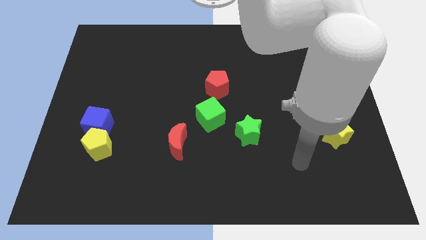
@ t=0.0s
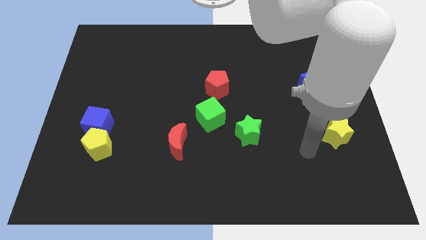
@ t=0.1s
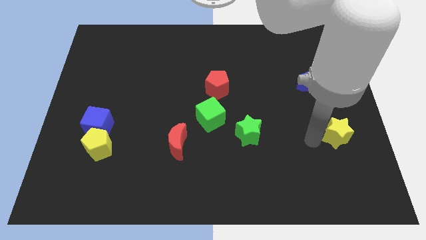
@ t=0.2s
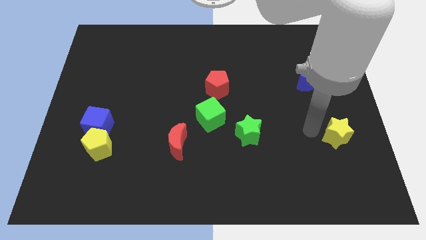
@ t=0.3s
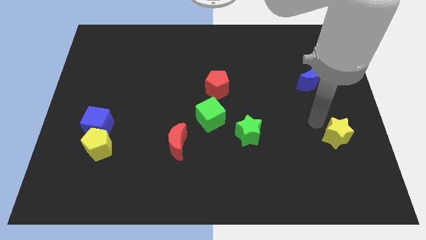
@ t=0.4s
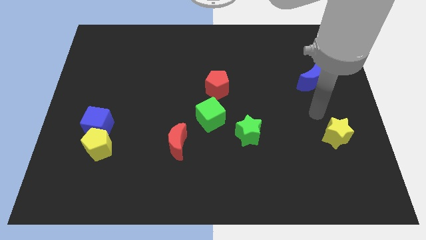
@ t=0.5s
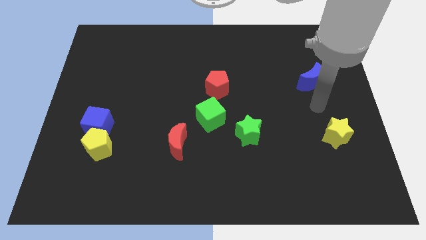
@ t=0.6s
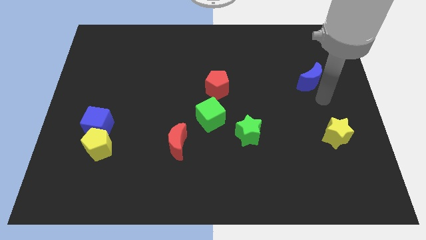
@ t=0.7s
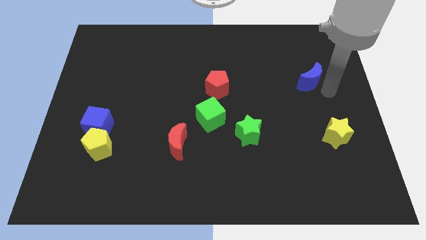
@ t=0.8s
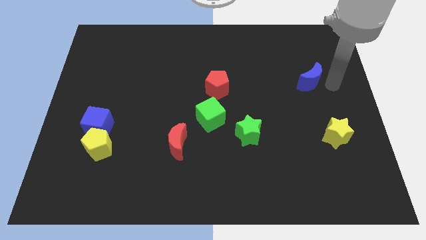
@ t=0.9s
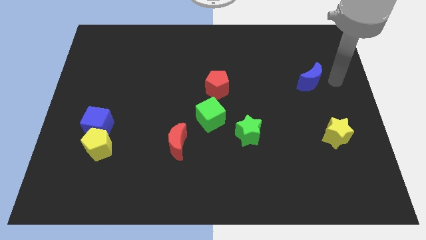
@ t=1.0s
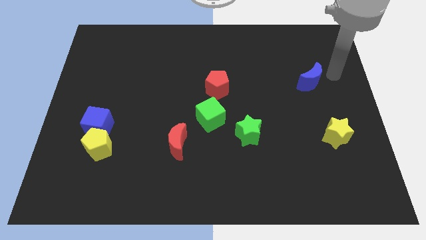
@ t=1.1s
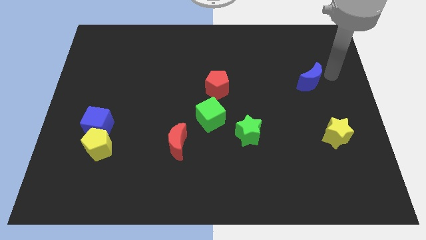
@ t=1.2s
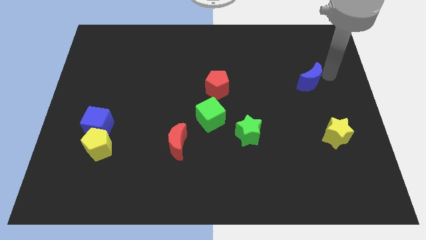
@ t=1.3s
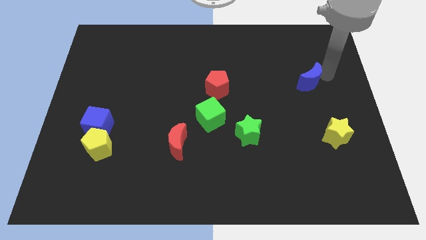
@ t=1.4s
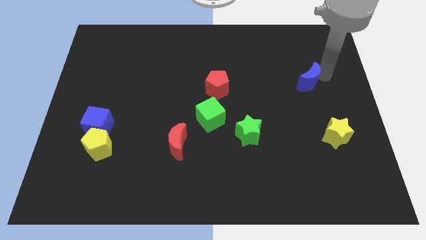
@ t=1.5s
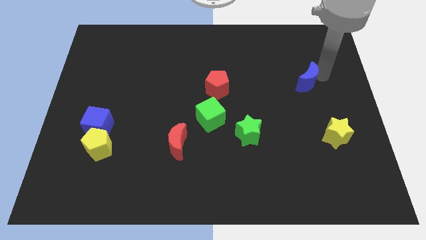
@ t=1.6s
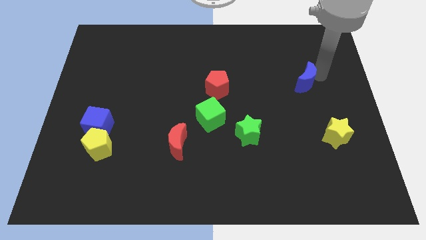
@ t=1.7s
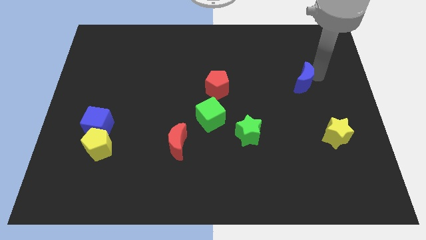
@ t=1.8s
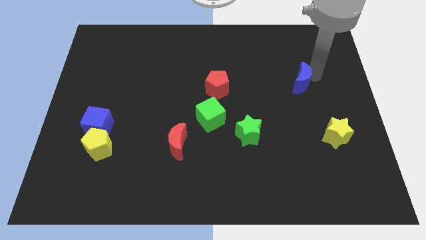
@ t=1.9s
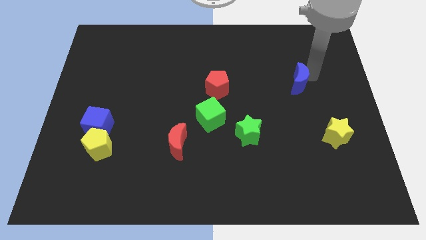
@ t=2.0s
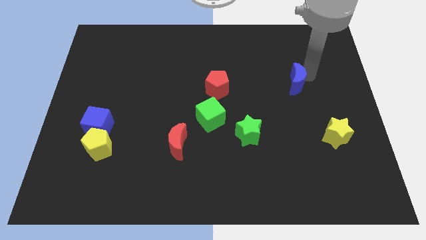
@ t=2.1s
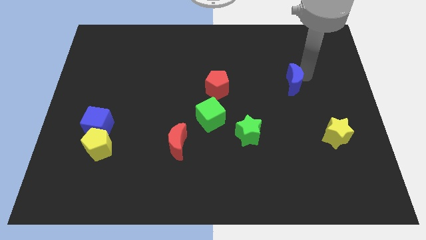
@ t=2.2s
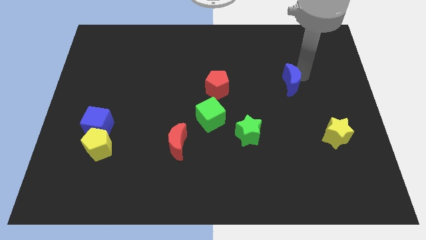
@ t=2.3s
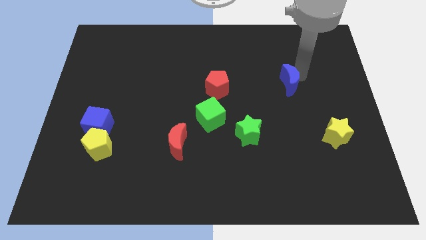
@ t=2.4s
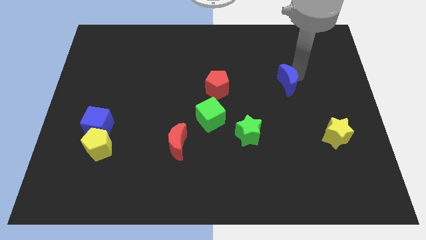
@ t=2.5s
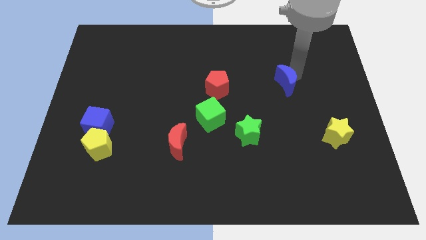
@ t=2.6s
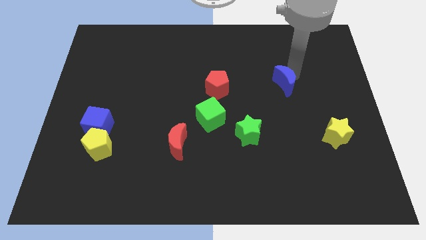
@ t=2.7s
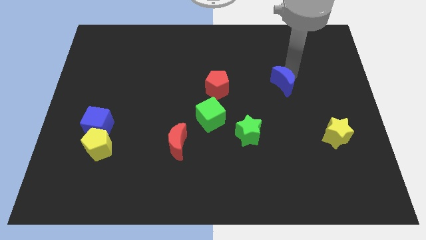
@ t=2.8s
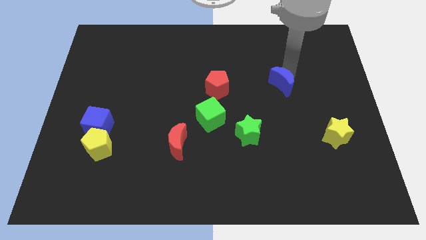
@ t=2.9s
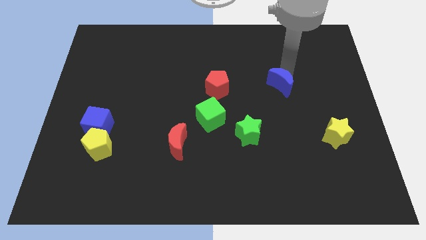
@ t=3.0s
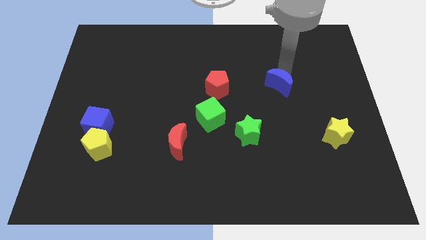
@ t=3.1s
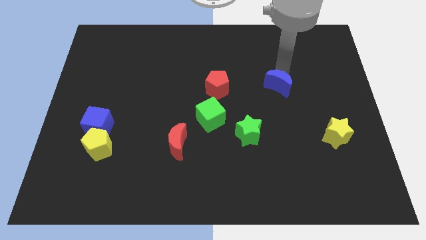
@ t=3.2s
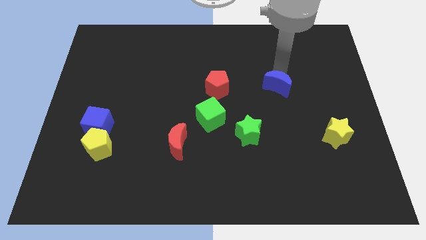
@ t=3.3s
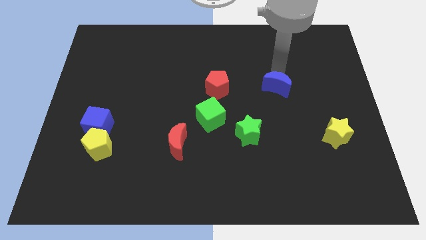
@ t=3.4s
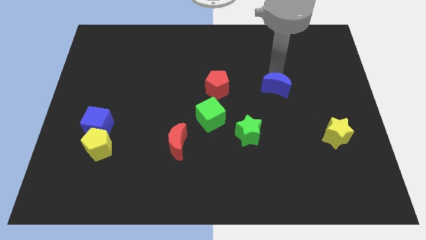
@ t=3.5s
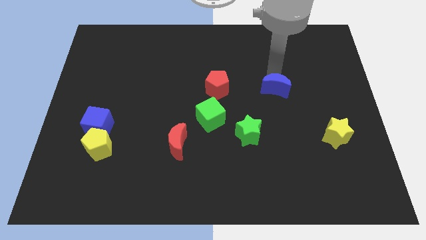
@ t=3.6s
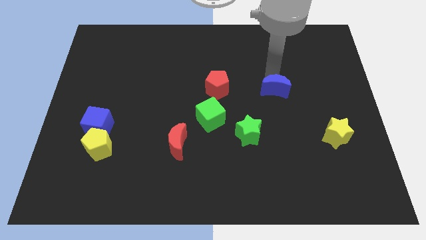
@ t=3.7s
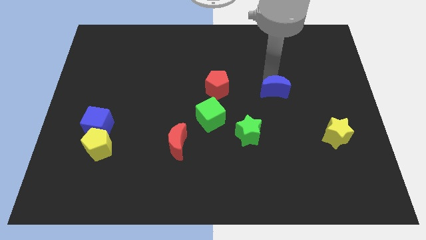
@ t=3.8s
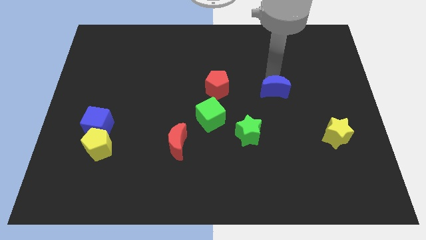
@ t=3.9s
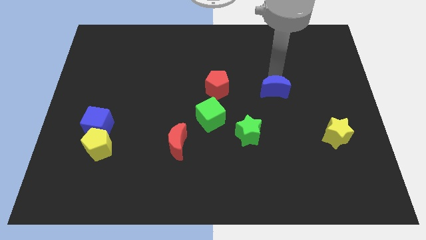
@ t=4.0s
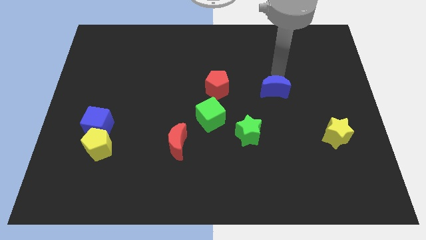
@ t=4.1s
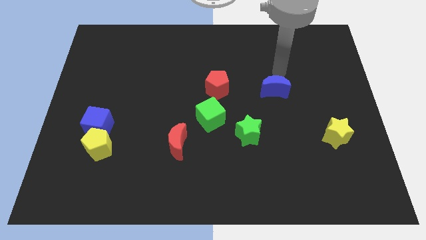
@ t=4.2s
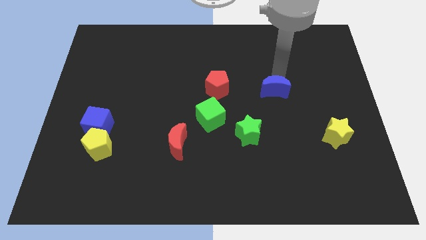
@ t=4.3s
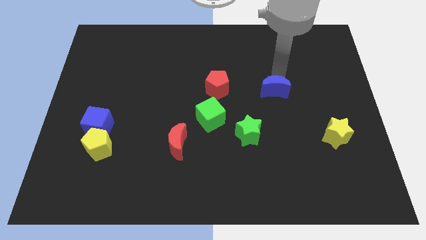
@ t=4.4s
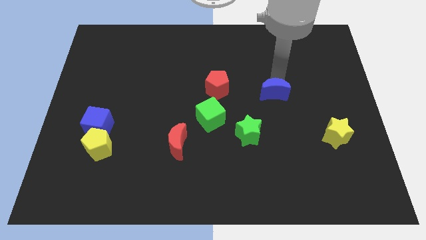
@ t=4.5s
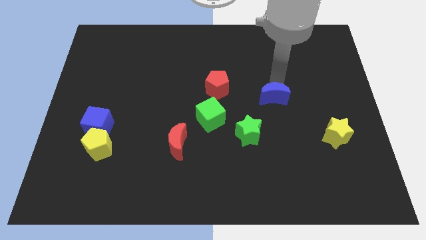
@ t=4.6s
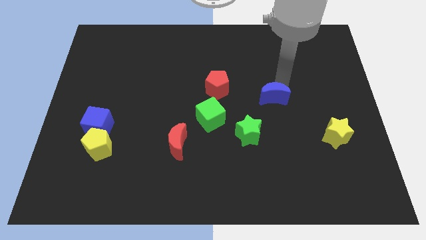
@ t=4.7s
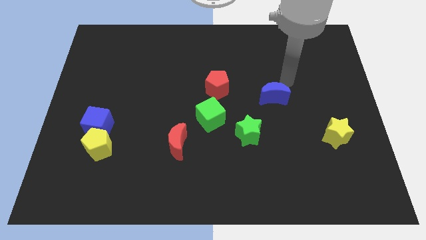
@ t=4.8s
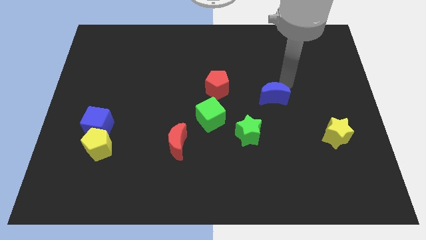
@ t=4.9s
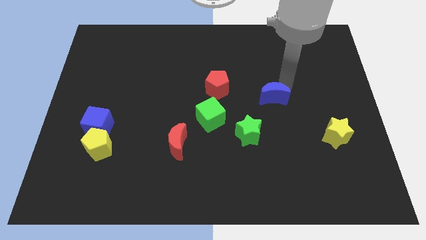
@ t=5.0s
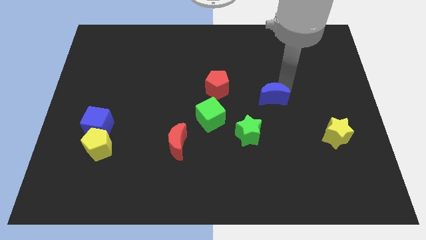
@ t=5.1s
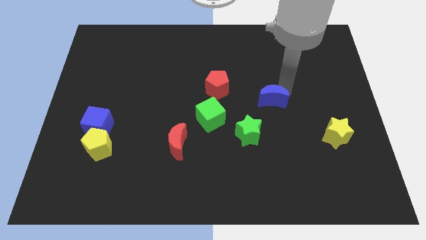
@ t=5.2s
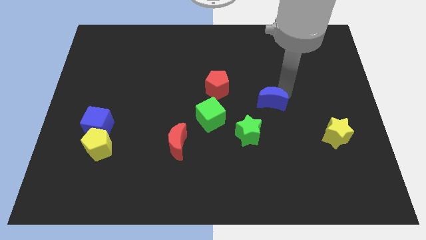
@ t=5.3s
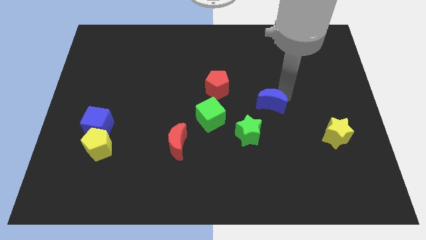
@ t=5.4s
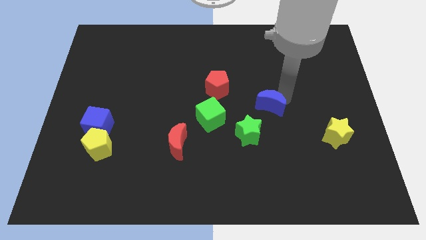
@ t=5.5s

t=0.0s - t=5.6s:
put the blue moon to the right of the green cube

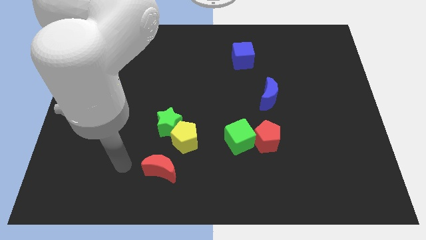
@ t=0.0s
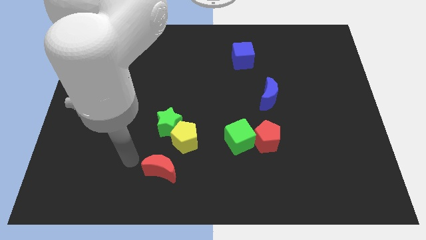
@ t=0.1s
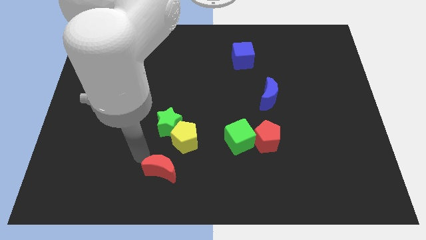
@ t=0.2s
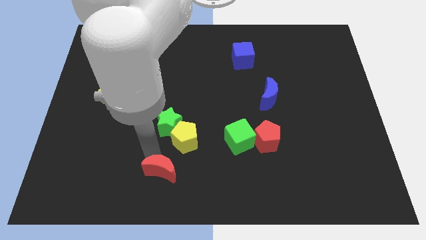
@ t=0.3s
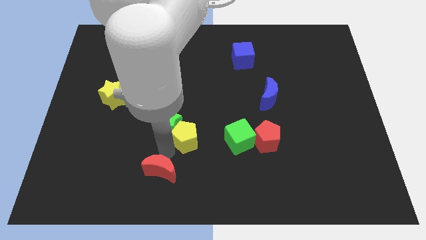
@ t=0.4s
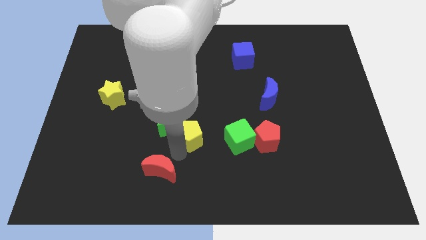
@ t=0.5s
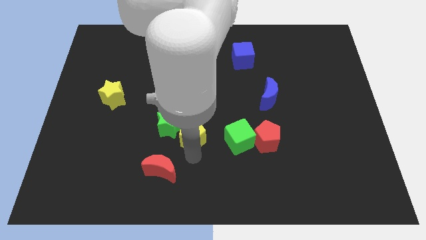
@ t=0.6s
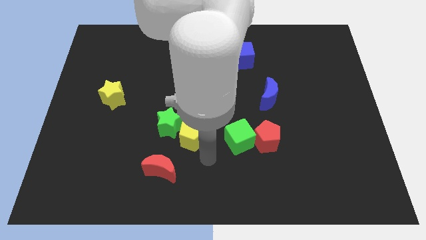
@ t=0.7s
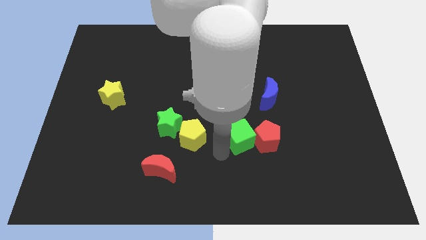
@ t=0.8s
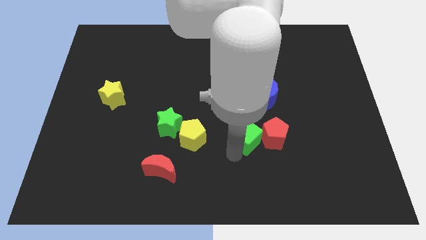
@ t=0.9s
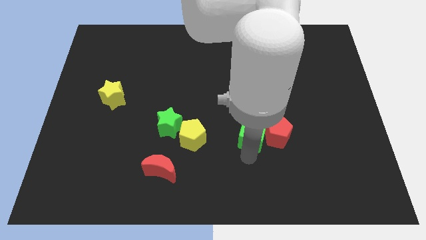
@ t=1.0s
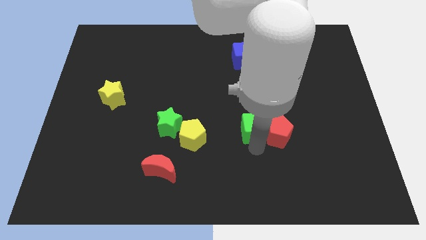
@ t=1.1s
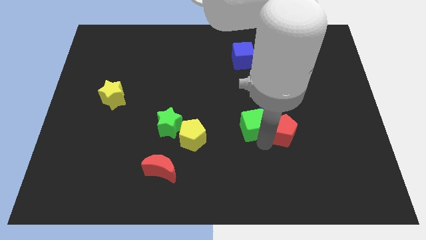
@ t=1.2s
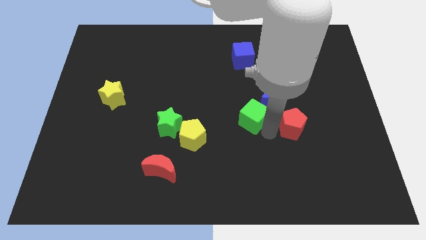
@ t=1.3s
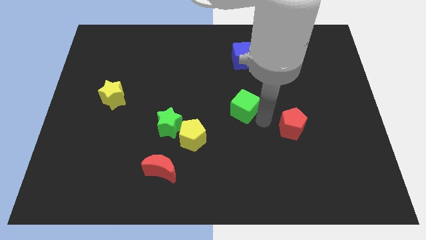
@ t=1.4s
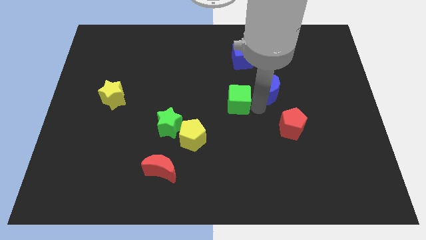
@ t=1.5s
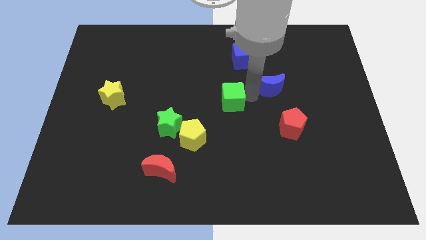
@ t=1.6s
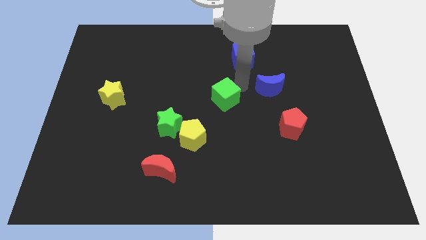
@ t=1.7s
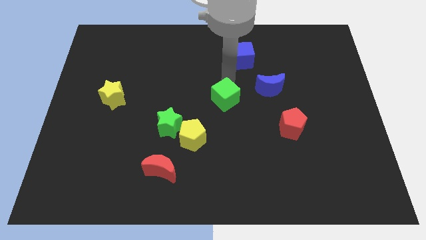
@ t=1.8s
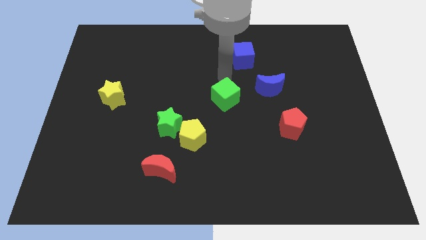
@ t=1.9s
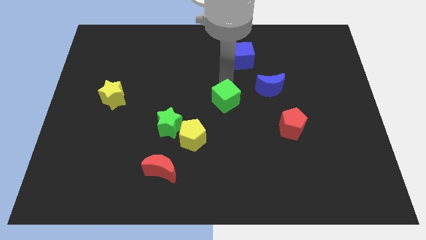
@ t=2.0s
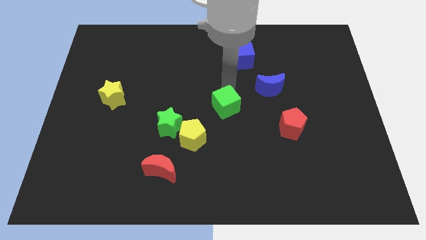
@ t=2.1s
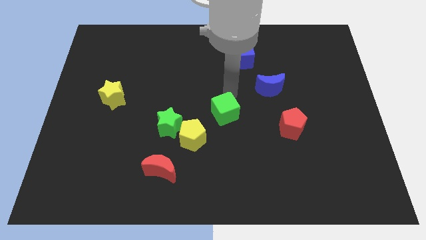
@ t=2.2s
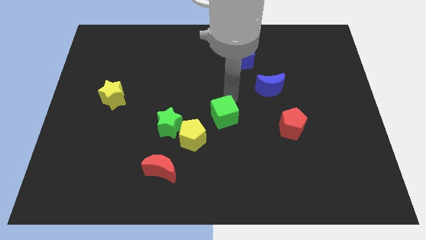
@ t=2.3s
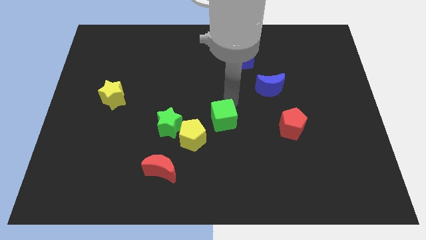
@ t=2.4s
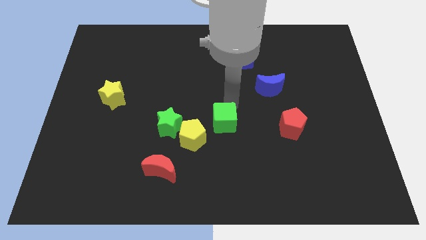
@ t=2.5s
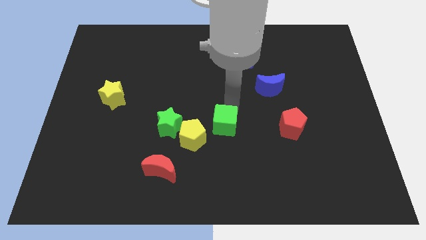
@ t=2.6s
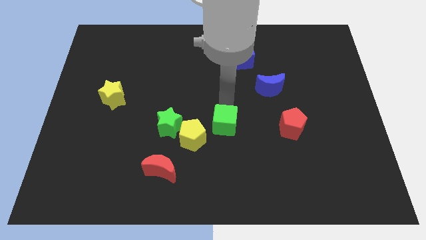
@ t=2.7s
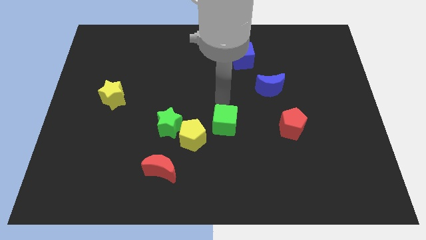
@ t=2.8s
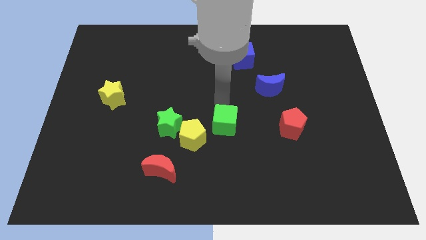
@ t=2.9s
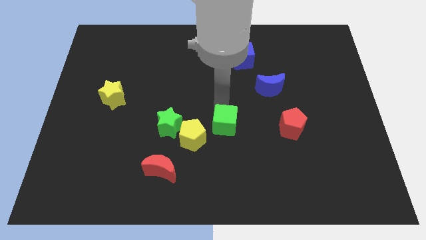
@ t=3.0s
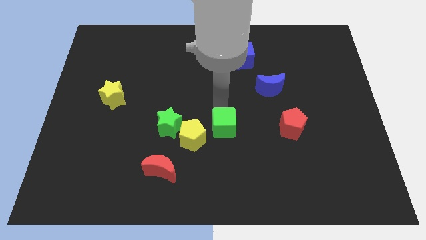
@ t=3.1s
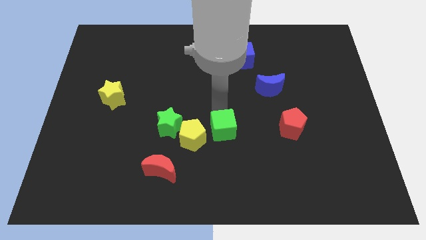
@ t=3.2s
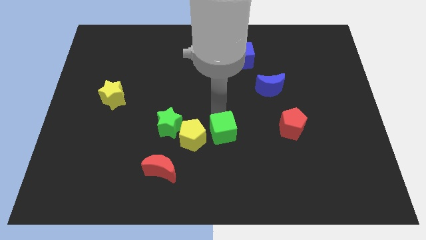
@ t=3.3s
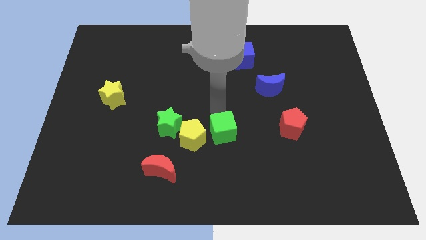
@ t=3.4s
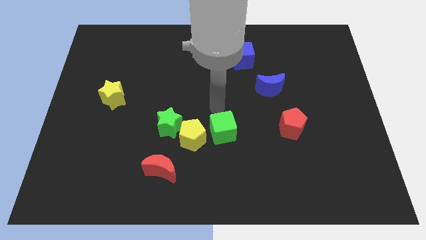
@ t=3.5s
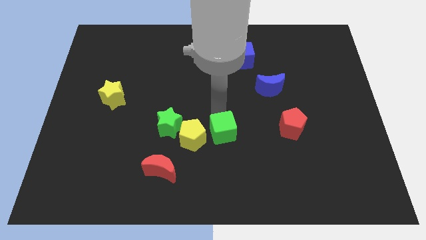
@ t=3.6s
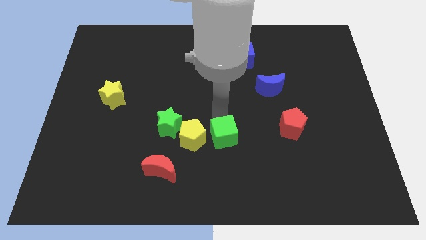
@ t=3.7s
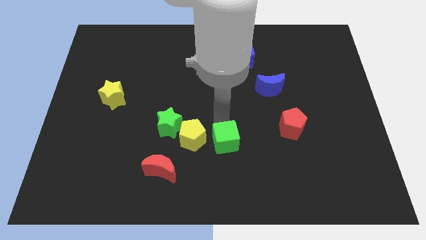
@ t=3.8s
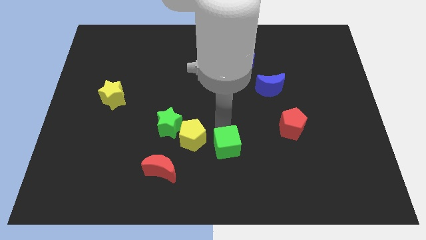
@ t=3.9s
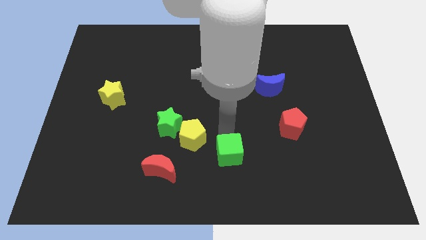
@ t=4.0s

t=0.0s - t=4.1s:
put the green cube to the right of the red moon
